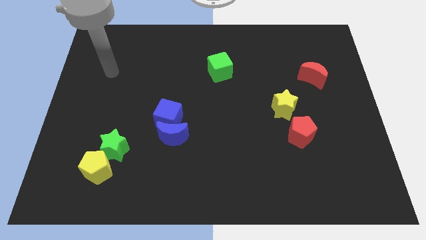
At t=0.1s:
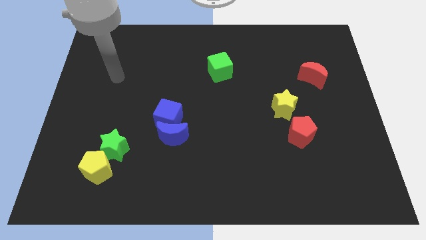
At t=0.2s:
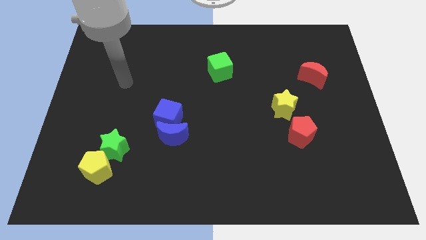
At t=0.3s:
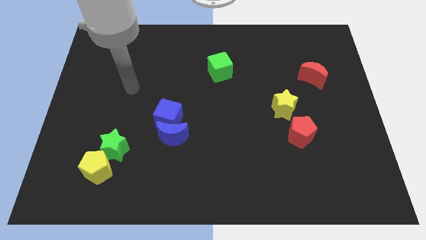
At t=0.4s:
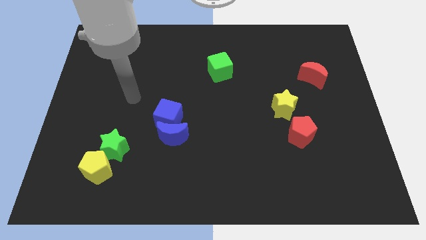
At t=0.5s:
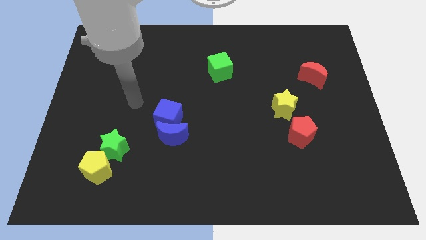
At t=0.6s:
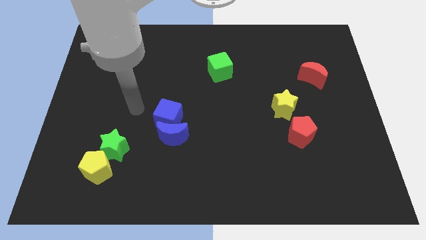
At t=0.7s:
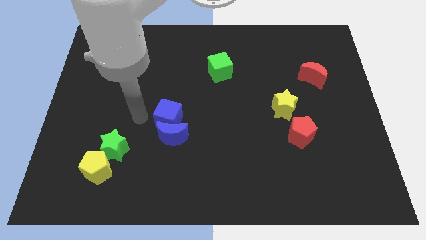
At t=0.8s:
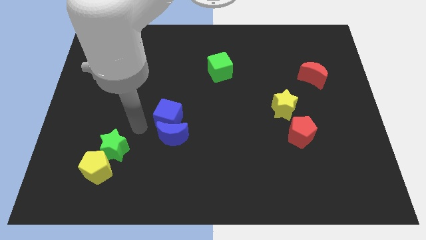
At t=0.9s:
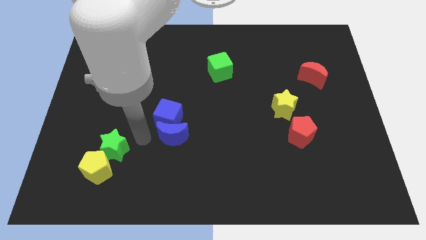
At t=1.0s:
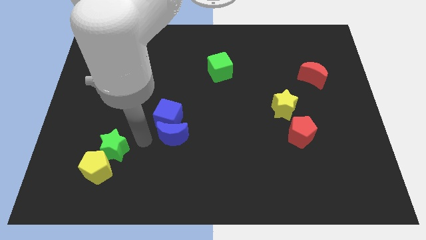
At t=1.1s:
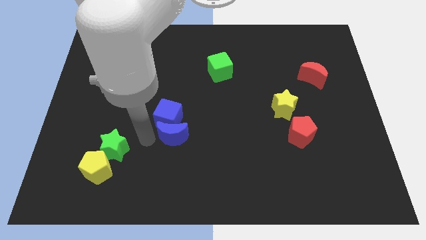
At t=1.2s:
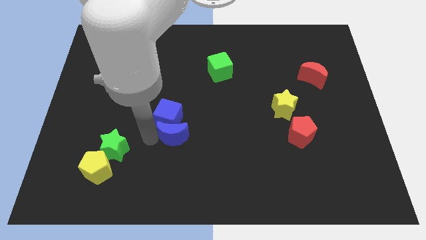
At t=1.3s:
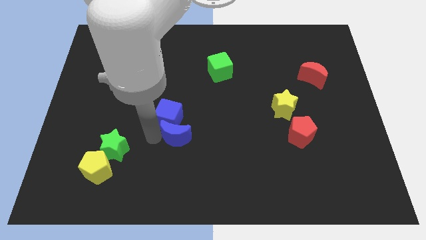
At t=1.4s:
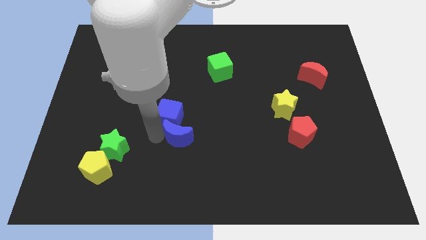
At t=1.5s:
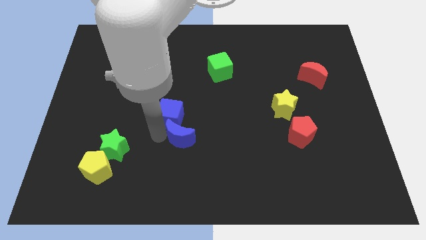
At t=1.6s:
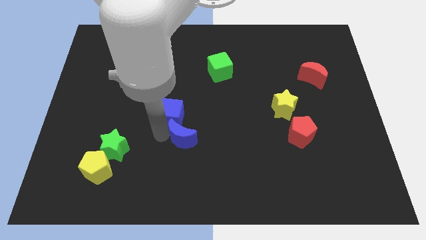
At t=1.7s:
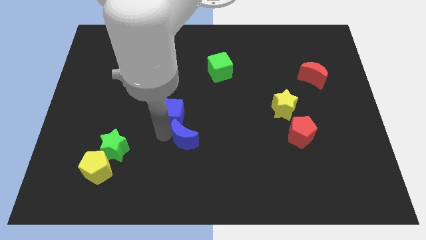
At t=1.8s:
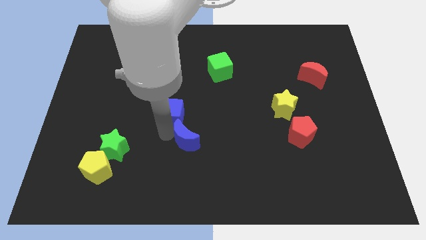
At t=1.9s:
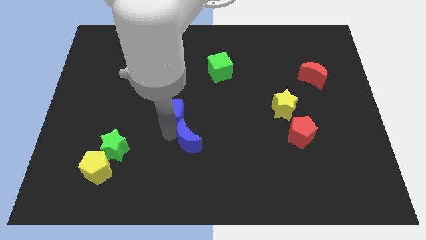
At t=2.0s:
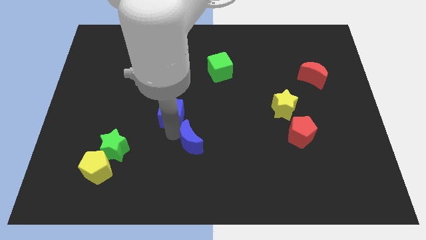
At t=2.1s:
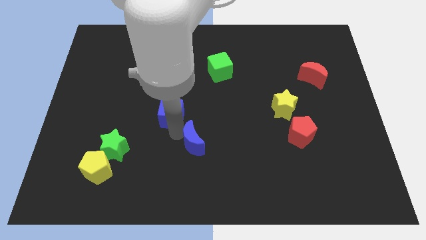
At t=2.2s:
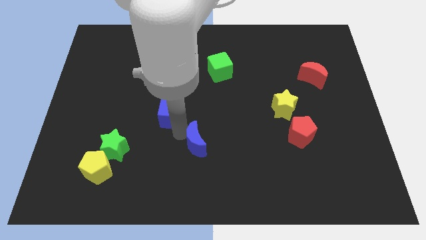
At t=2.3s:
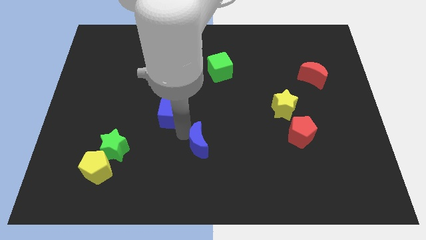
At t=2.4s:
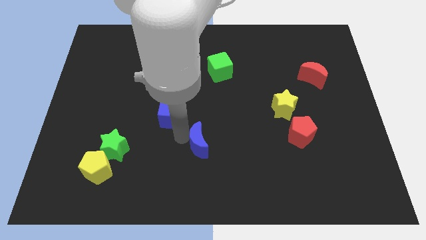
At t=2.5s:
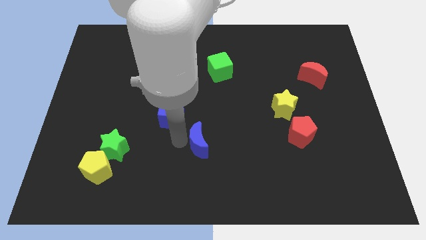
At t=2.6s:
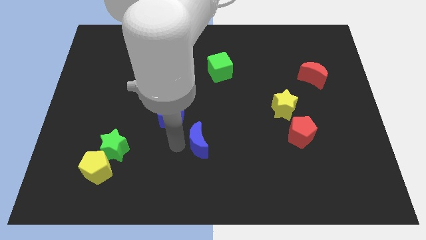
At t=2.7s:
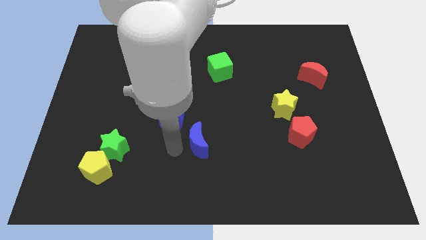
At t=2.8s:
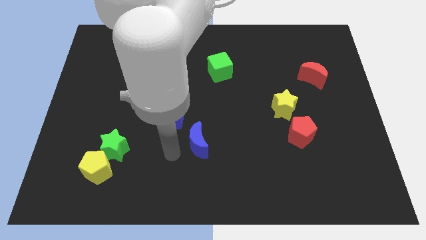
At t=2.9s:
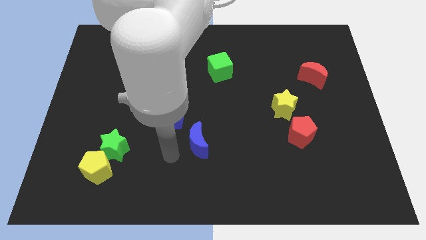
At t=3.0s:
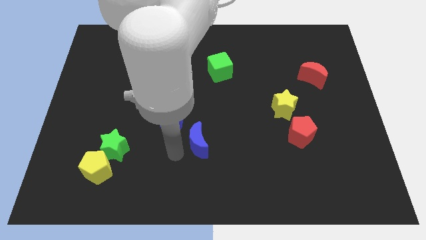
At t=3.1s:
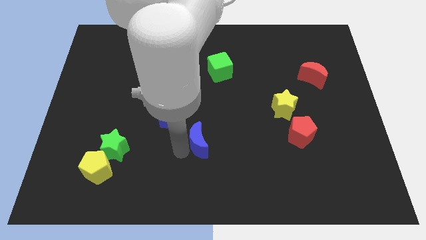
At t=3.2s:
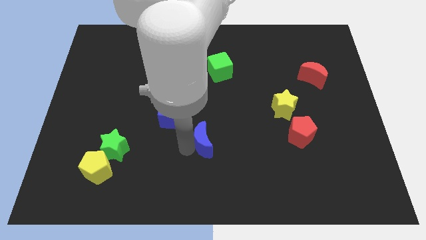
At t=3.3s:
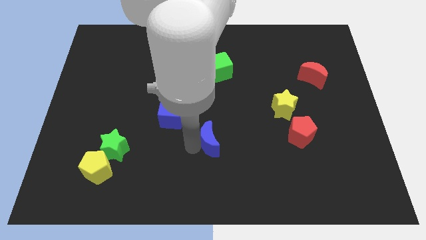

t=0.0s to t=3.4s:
push the blue moon to the right a bit

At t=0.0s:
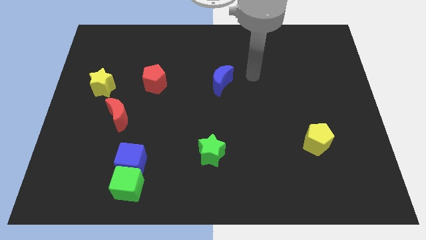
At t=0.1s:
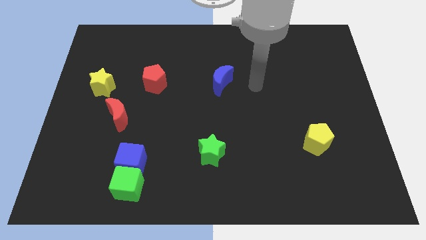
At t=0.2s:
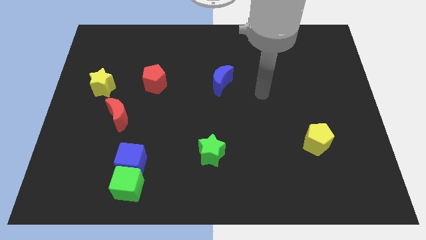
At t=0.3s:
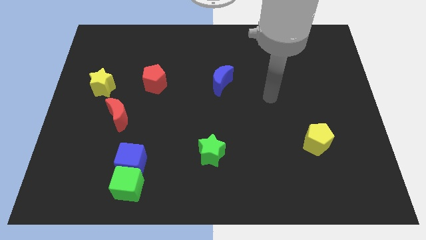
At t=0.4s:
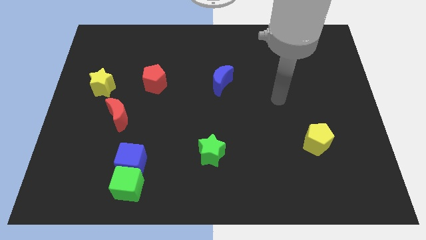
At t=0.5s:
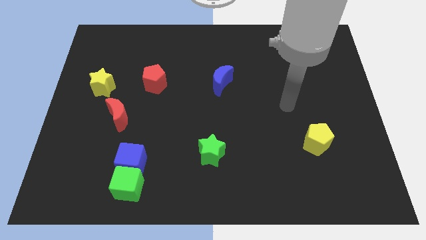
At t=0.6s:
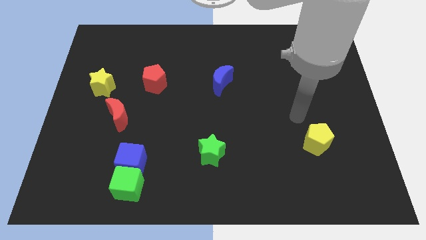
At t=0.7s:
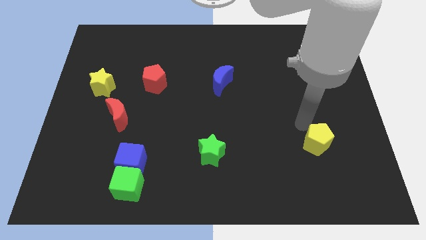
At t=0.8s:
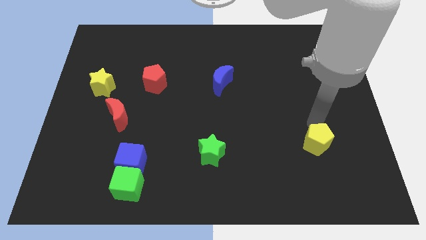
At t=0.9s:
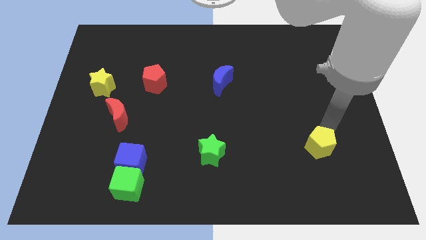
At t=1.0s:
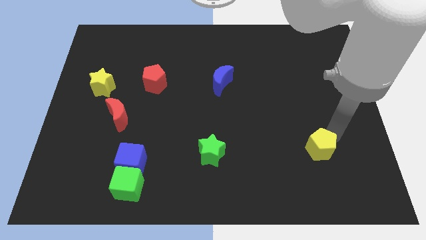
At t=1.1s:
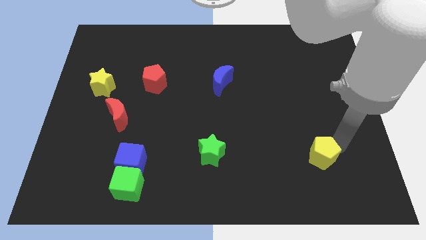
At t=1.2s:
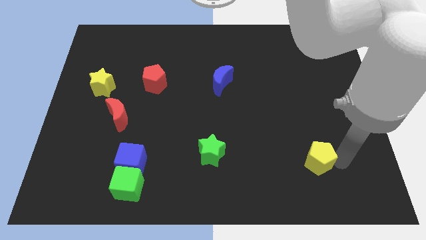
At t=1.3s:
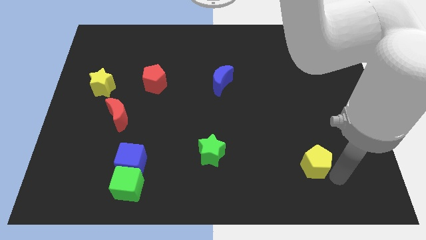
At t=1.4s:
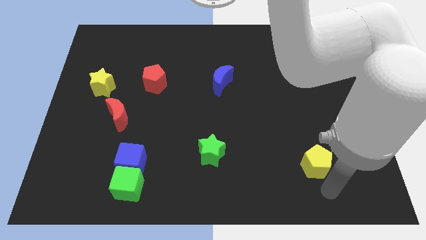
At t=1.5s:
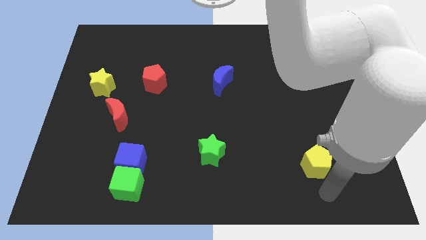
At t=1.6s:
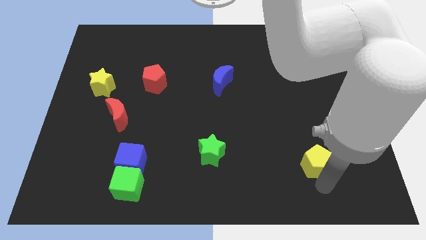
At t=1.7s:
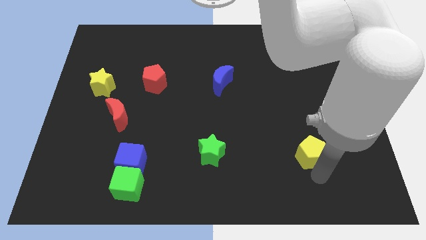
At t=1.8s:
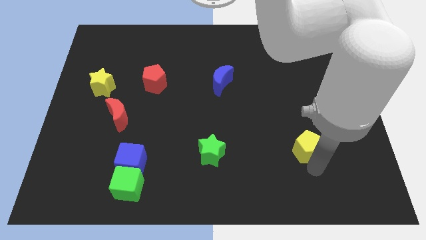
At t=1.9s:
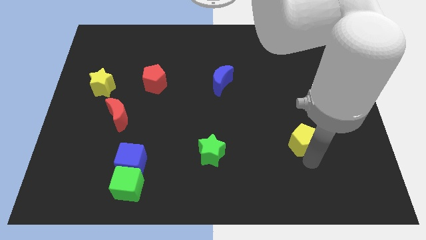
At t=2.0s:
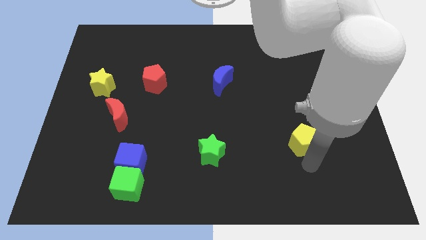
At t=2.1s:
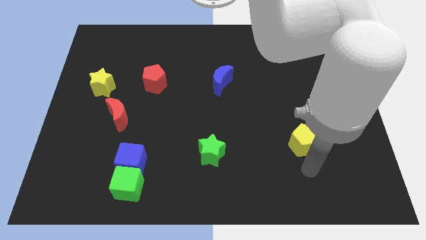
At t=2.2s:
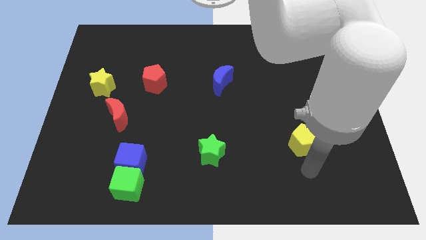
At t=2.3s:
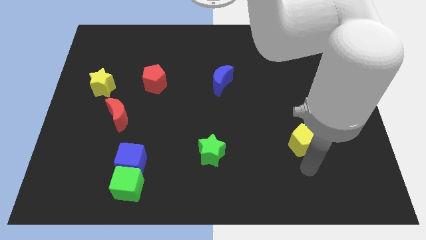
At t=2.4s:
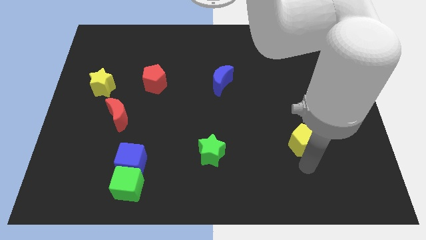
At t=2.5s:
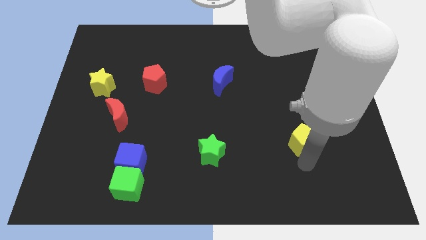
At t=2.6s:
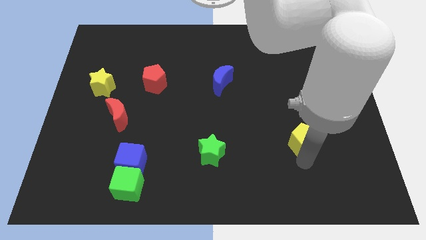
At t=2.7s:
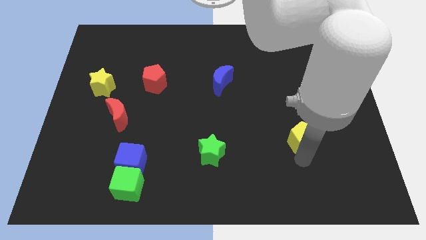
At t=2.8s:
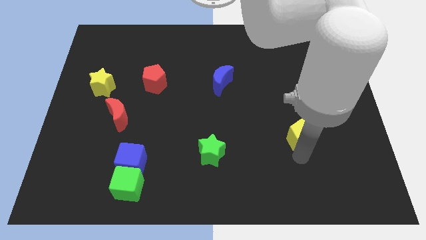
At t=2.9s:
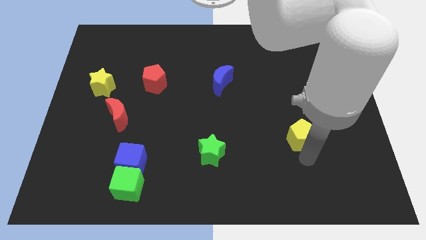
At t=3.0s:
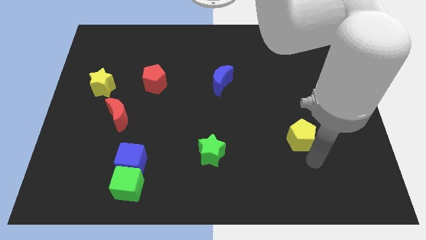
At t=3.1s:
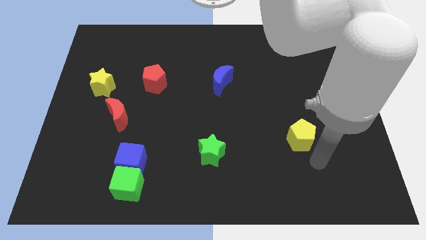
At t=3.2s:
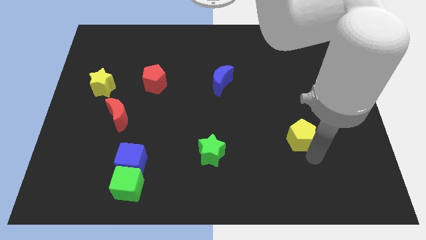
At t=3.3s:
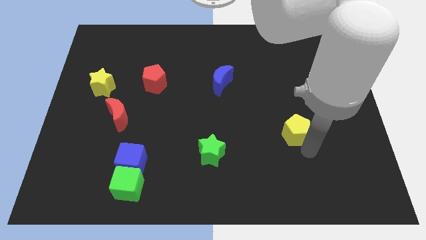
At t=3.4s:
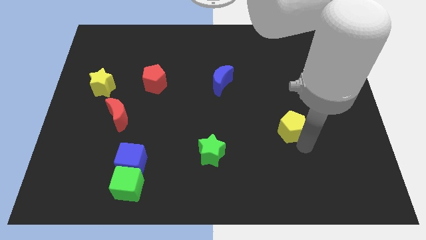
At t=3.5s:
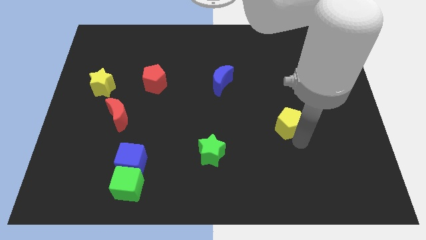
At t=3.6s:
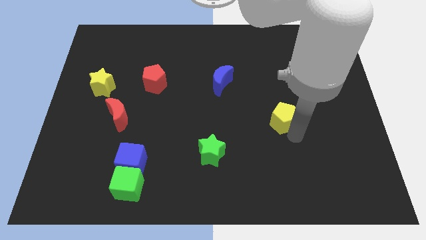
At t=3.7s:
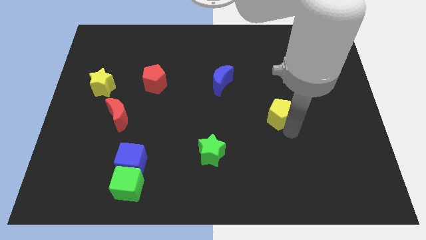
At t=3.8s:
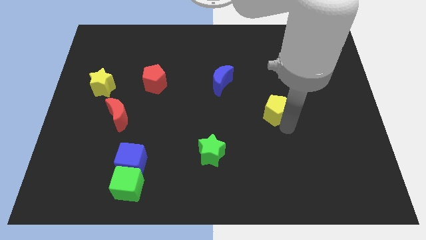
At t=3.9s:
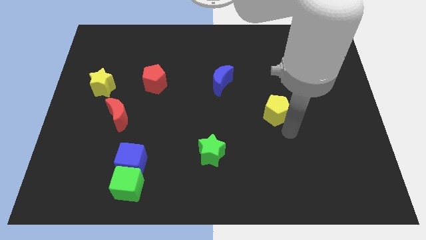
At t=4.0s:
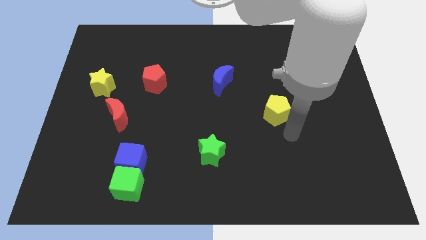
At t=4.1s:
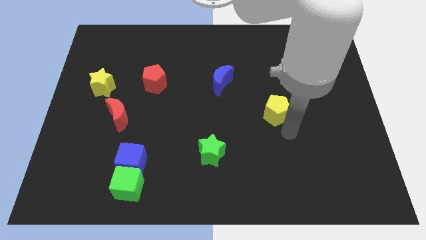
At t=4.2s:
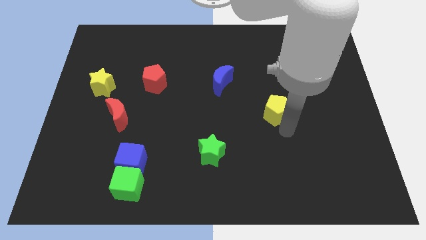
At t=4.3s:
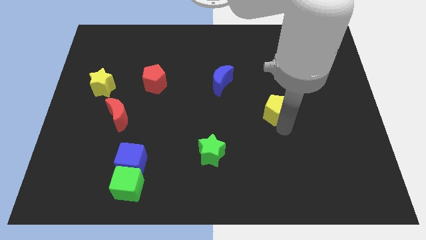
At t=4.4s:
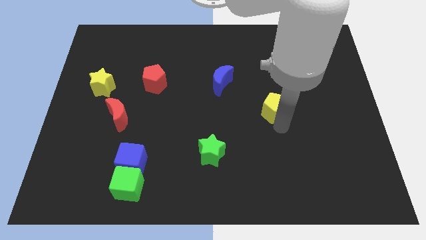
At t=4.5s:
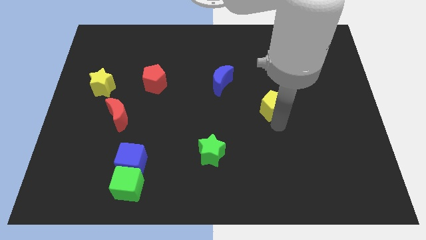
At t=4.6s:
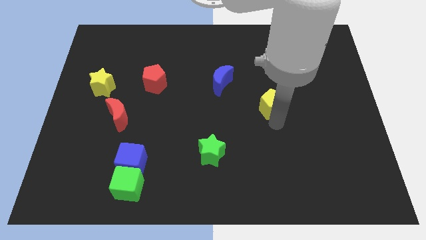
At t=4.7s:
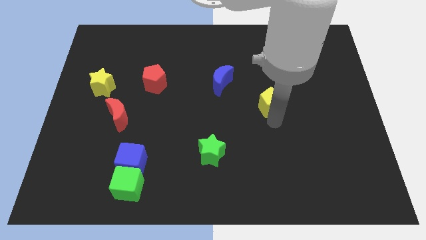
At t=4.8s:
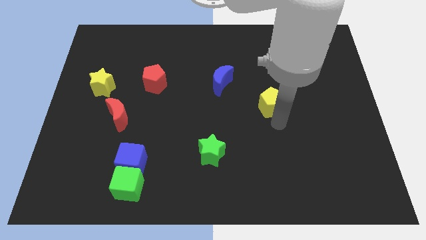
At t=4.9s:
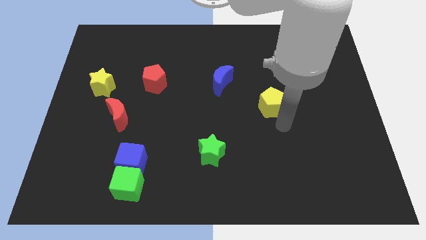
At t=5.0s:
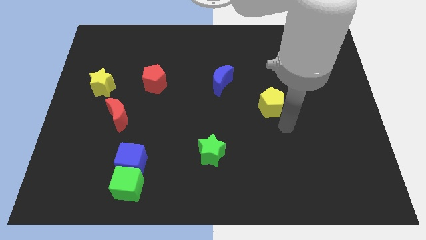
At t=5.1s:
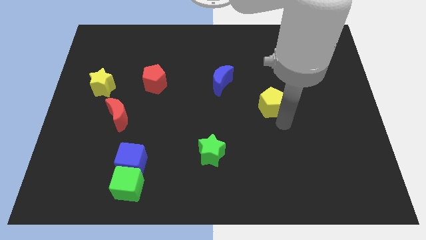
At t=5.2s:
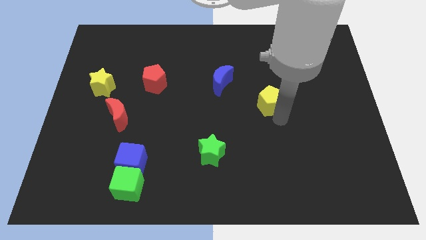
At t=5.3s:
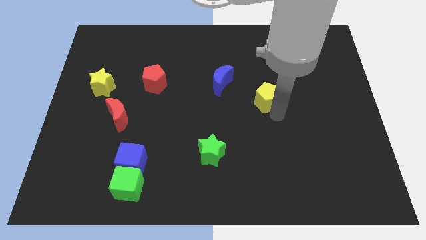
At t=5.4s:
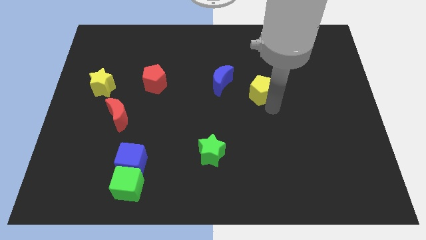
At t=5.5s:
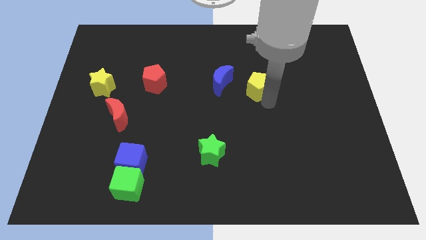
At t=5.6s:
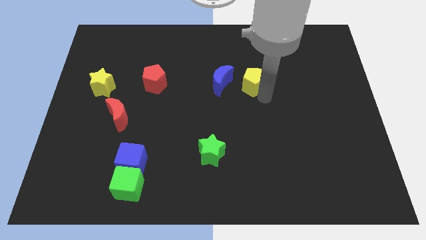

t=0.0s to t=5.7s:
push the yellow pentagon up and left
